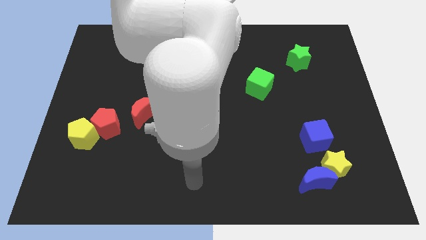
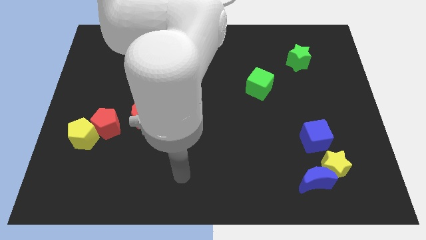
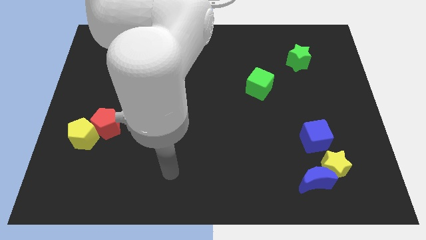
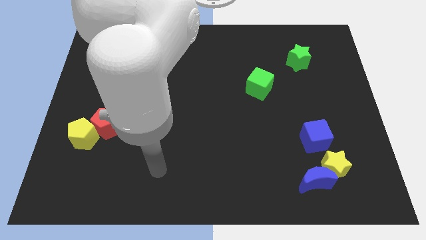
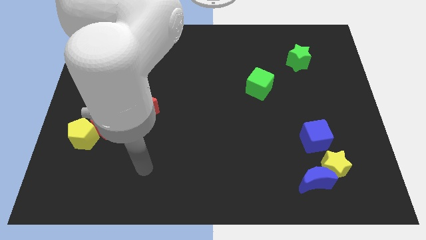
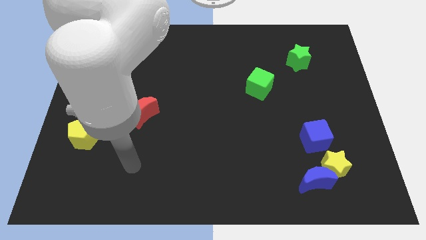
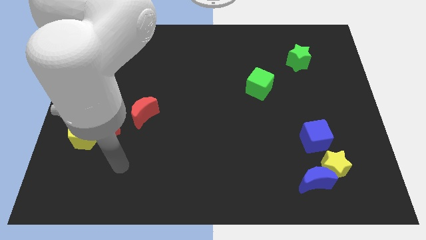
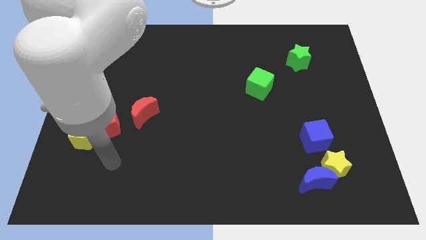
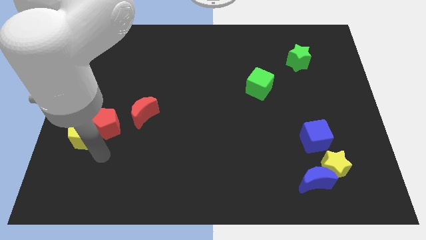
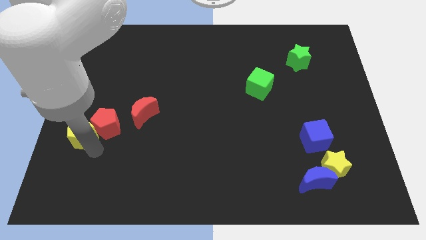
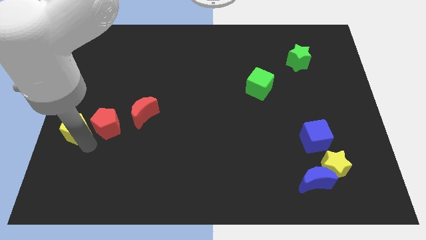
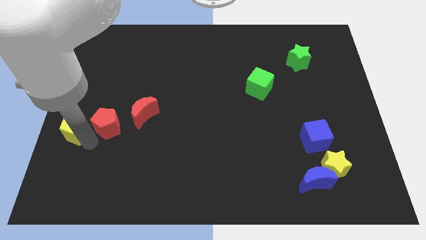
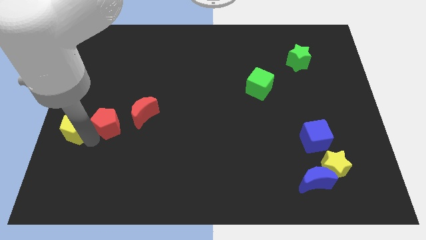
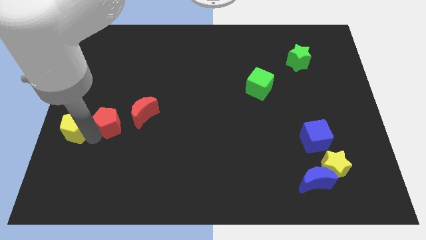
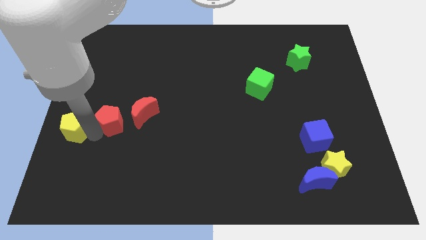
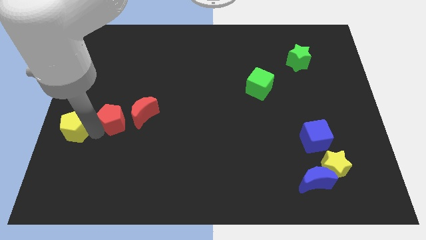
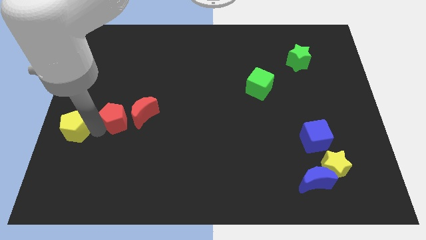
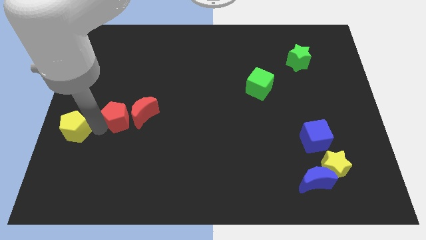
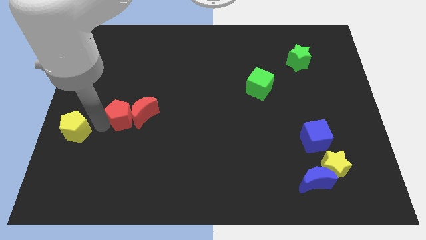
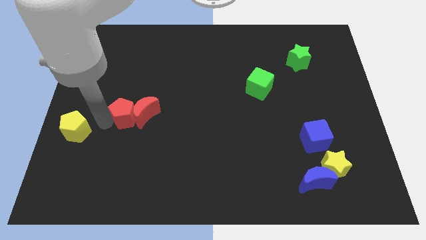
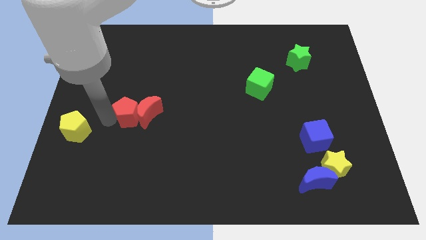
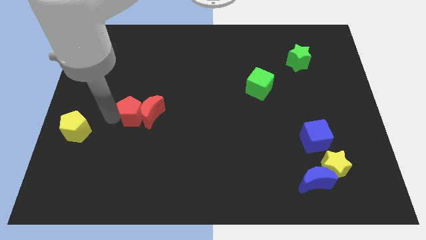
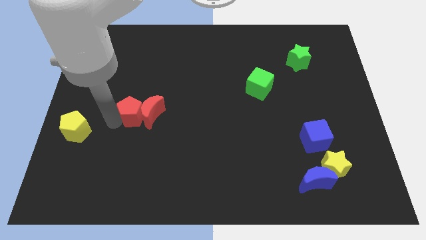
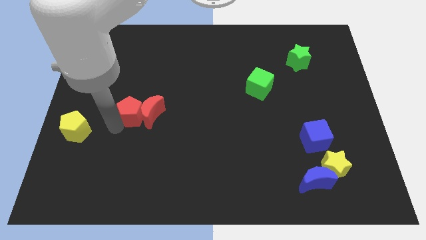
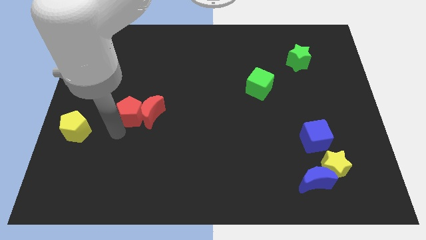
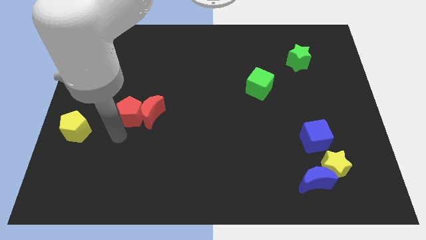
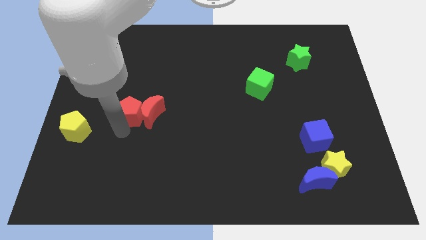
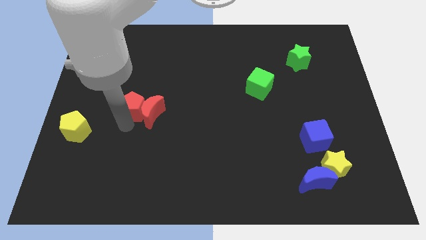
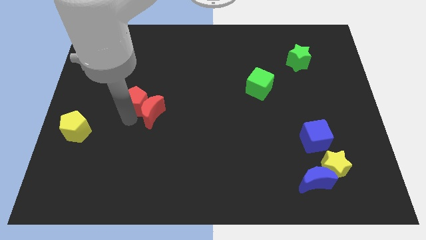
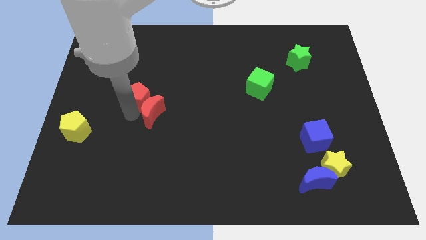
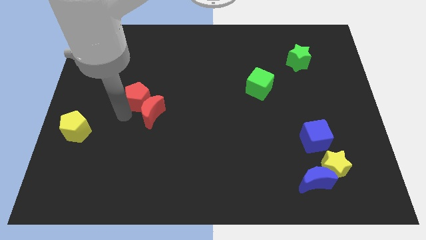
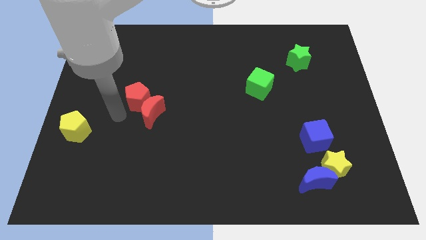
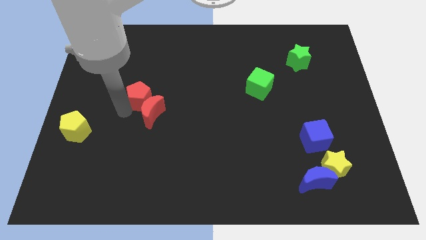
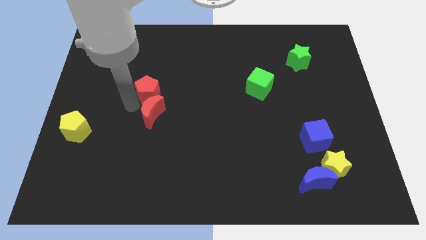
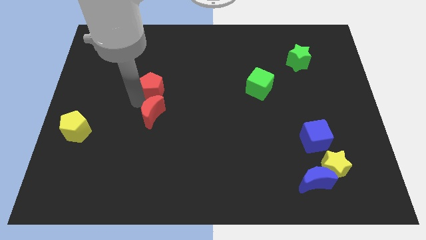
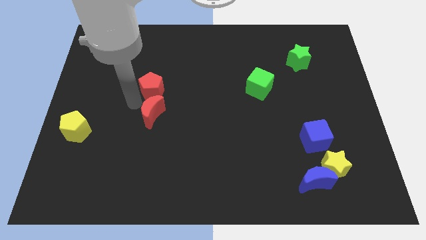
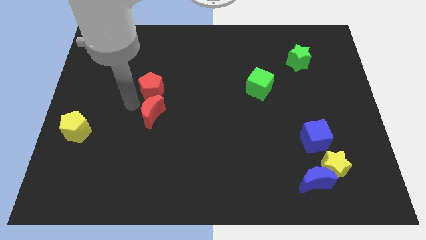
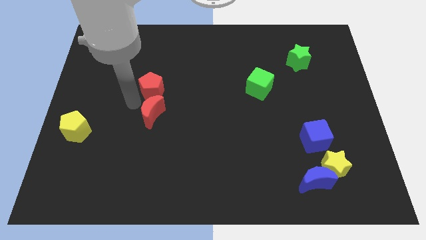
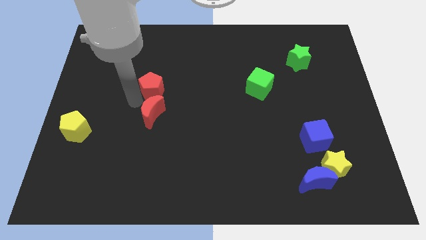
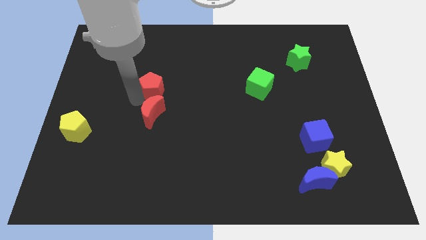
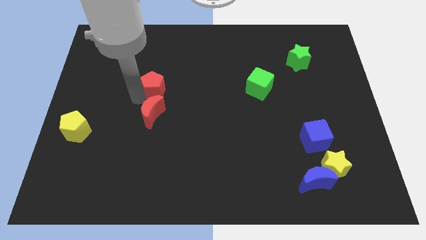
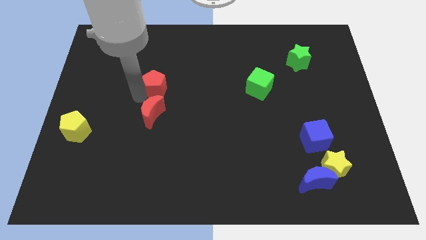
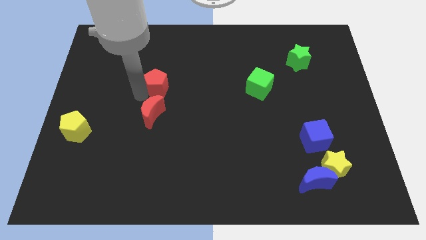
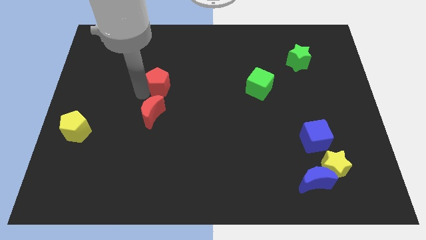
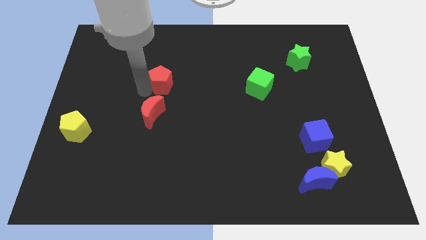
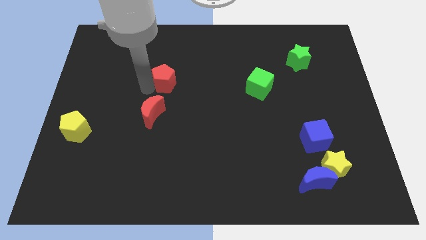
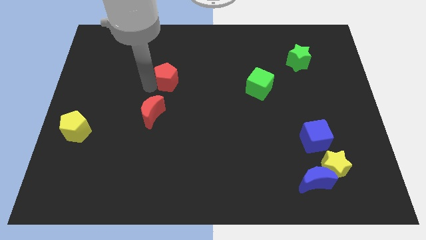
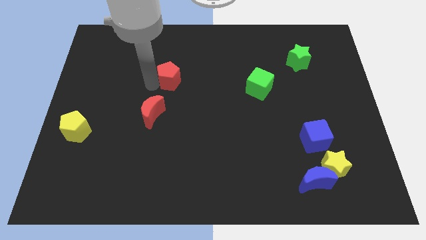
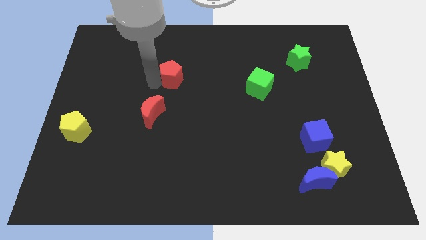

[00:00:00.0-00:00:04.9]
move the red pentagon diagonally upwards and to the right

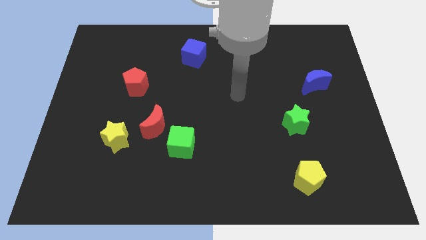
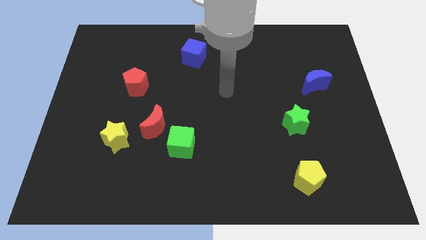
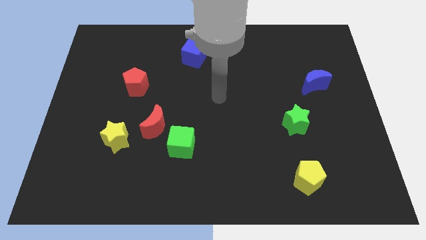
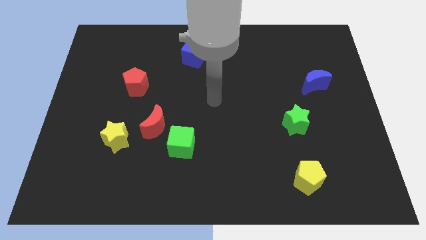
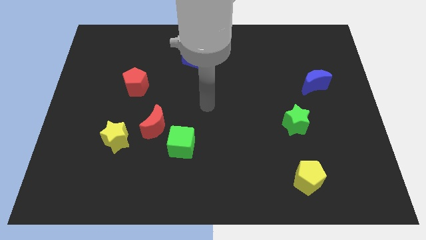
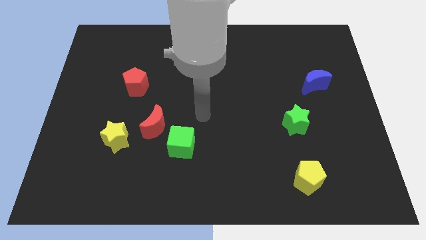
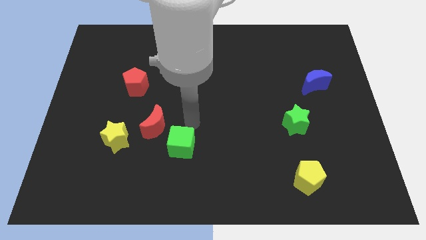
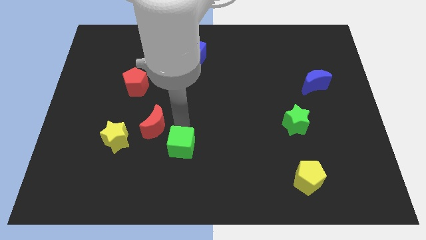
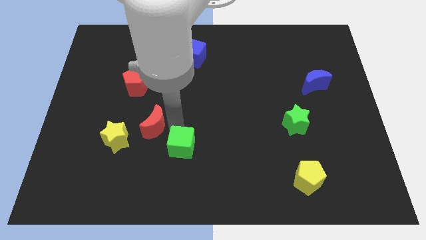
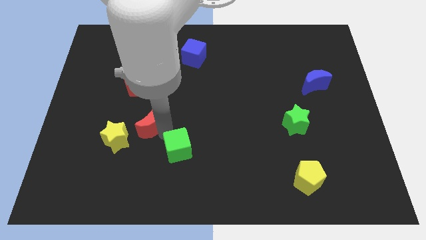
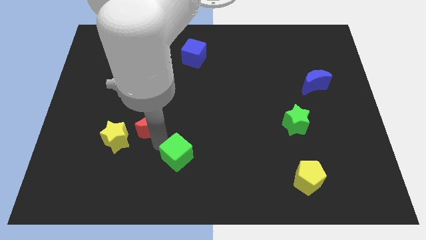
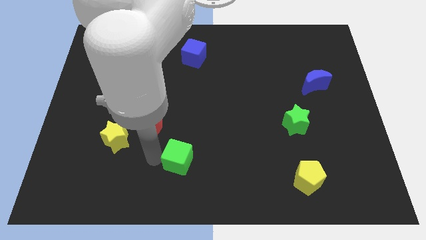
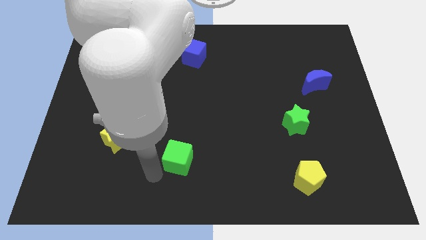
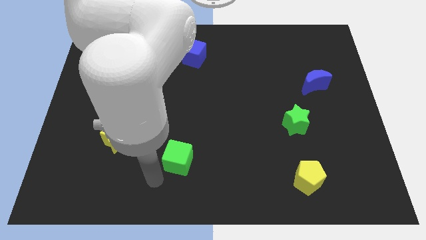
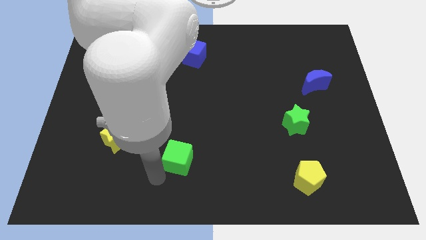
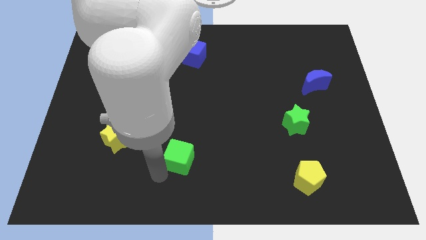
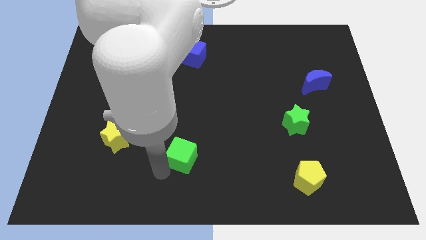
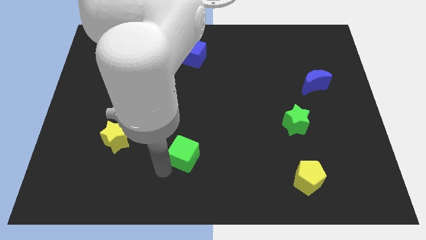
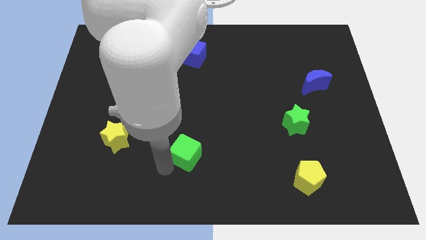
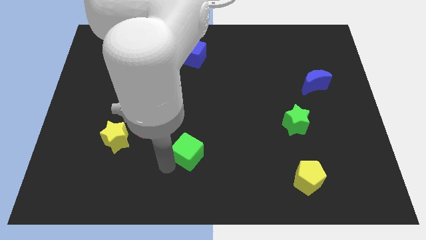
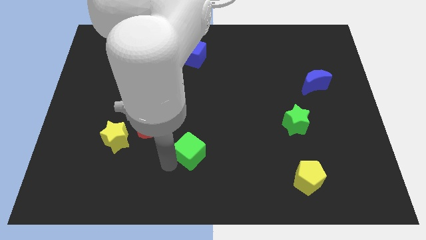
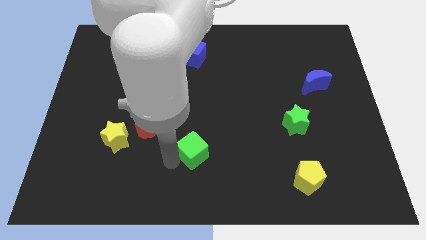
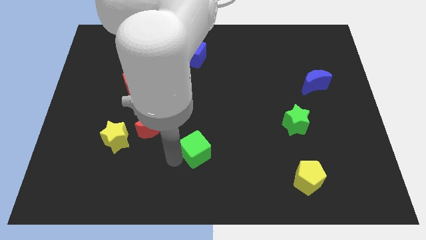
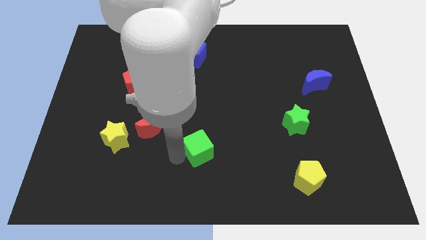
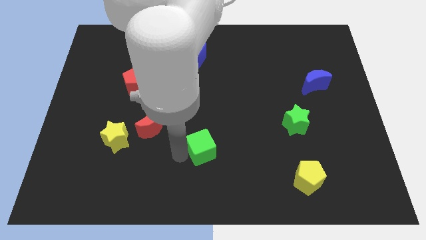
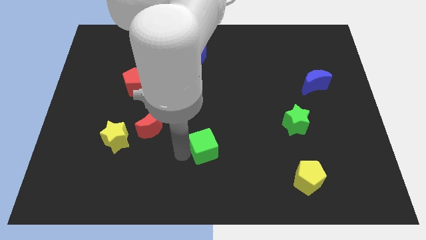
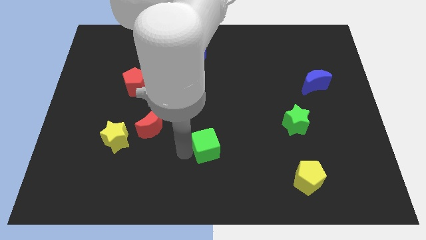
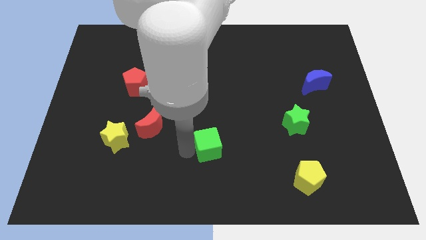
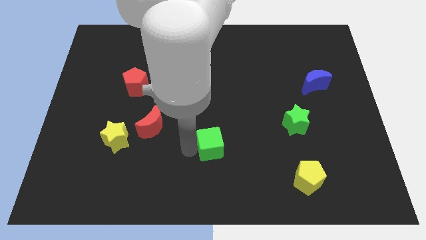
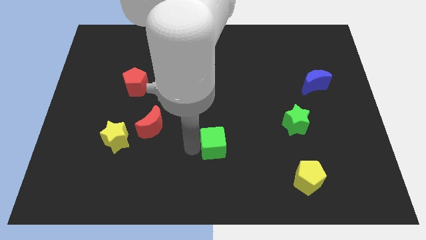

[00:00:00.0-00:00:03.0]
slide the green cube somewhat to the right
